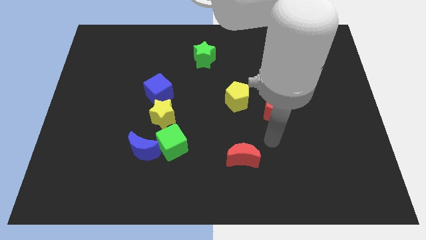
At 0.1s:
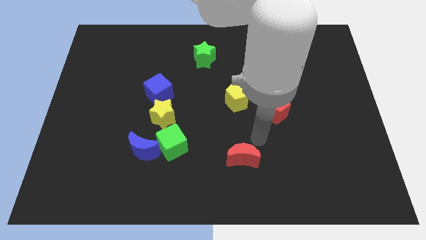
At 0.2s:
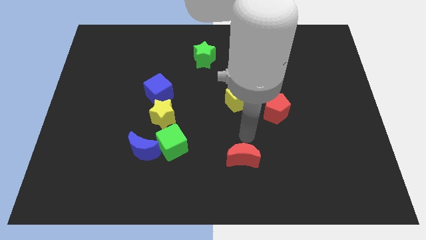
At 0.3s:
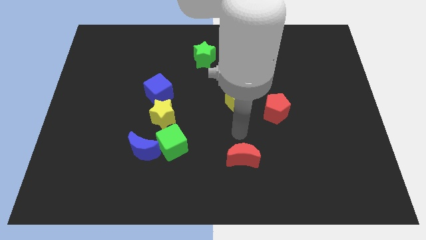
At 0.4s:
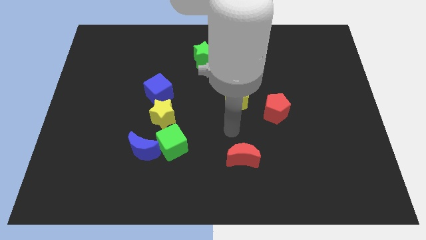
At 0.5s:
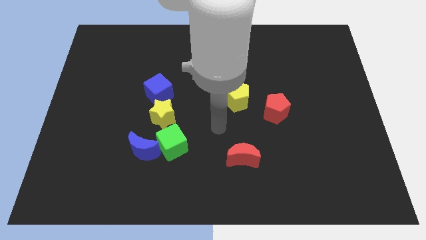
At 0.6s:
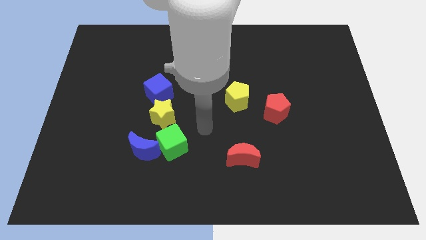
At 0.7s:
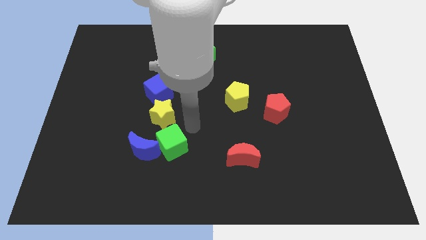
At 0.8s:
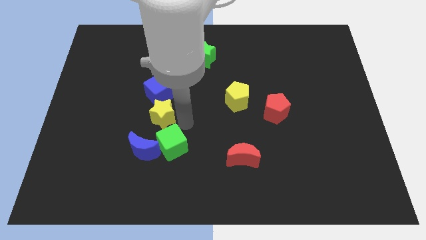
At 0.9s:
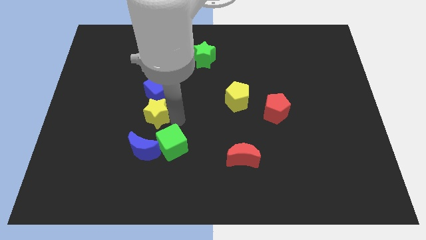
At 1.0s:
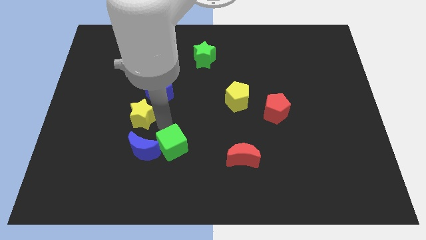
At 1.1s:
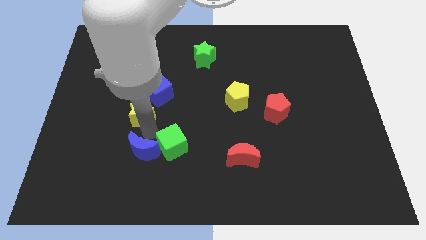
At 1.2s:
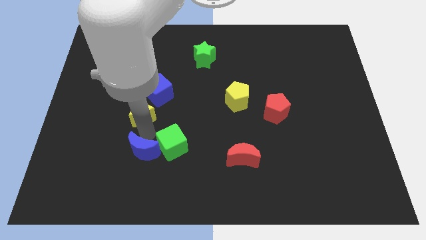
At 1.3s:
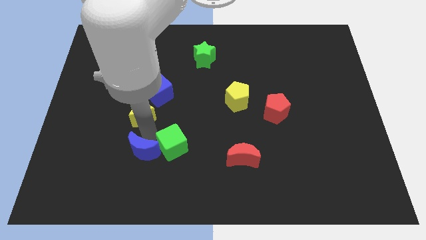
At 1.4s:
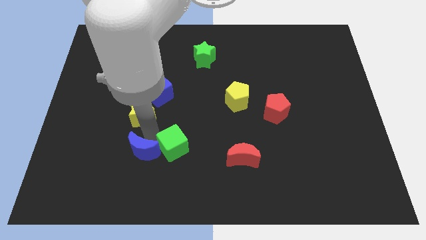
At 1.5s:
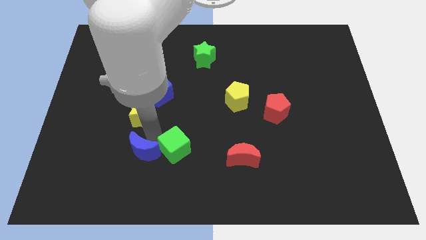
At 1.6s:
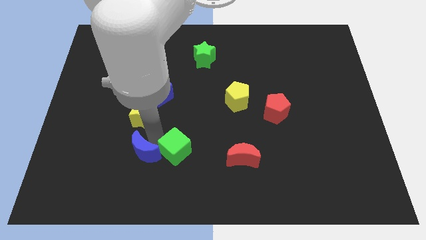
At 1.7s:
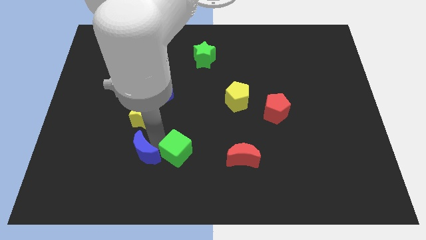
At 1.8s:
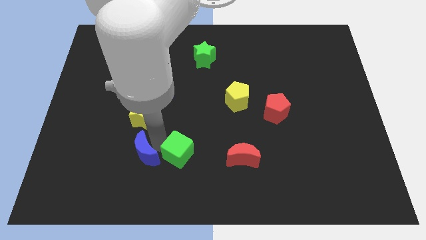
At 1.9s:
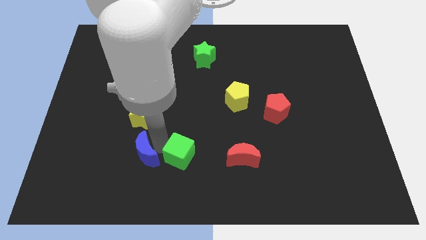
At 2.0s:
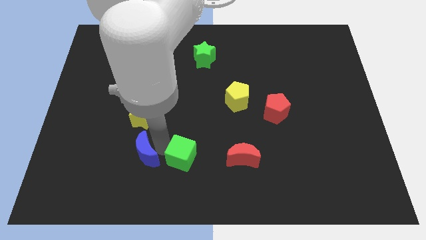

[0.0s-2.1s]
pull the green cube apart from the blue moon and yellow star

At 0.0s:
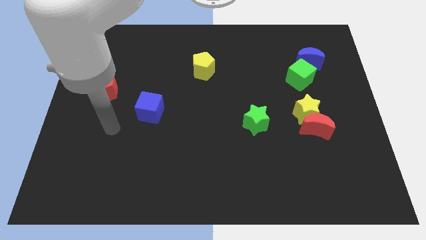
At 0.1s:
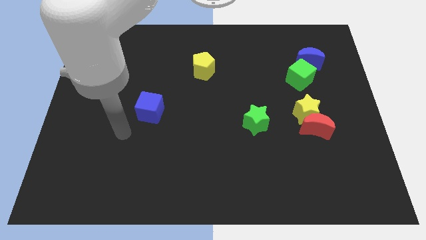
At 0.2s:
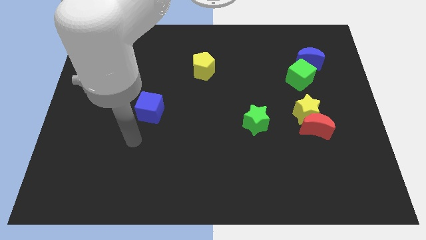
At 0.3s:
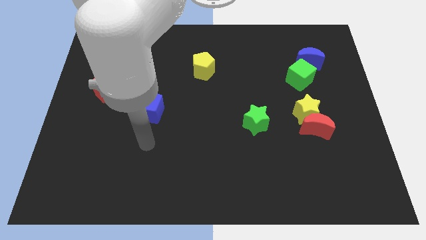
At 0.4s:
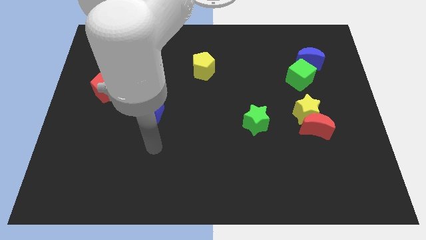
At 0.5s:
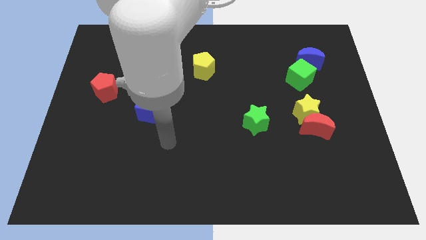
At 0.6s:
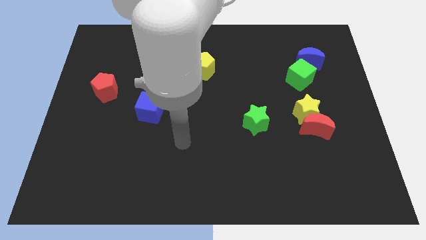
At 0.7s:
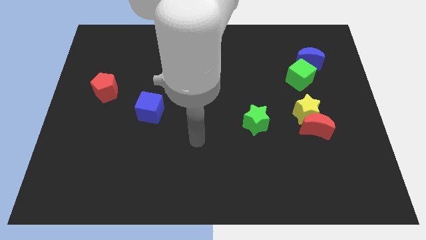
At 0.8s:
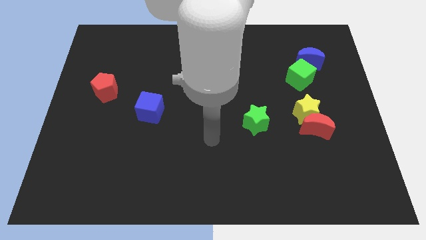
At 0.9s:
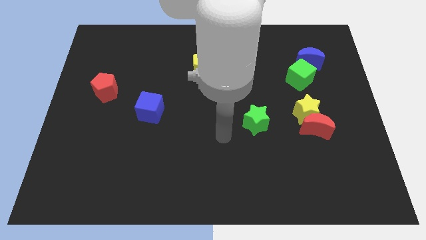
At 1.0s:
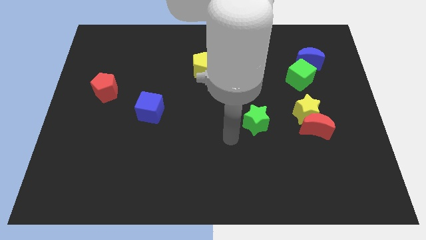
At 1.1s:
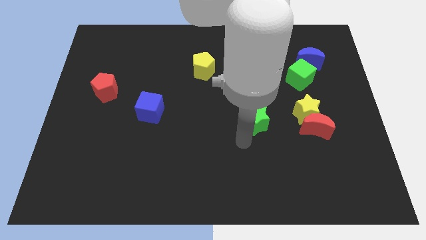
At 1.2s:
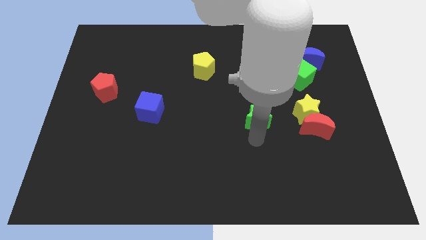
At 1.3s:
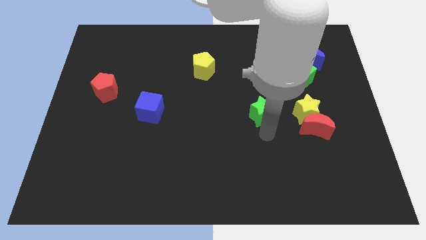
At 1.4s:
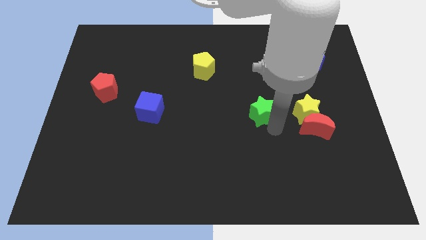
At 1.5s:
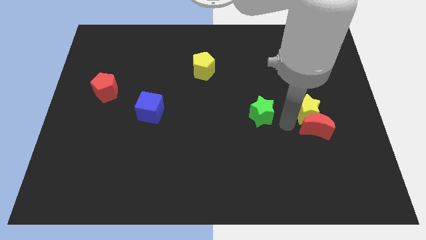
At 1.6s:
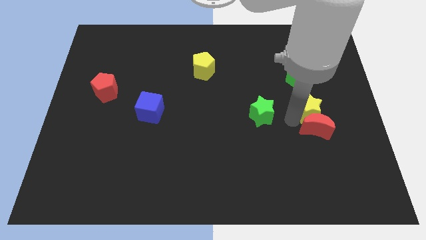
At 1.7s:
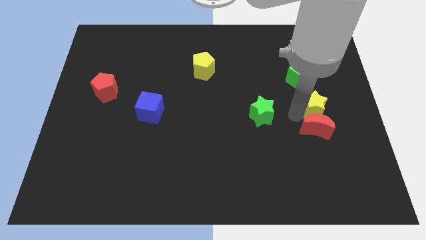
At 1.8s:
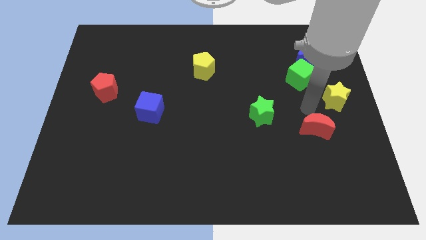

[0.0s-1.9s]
move the red moon away from the yellow star

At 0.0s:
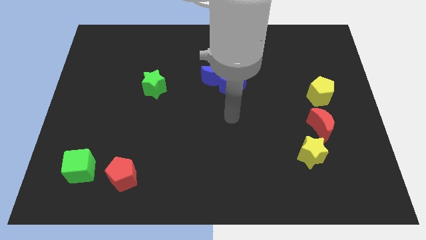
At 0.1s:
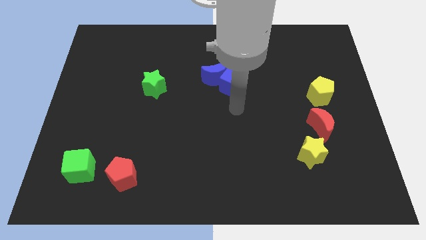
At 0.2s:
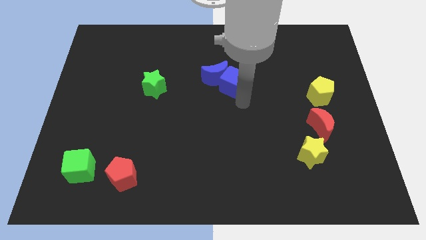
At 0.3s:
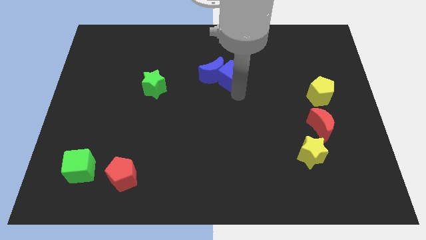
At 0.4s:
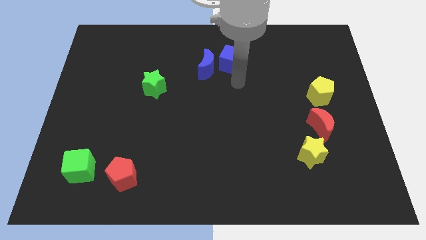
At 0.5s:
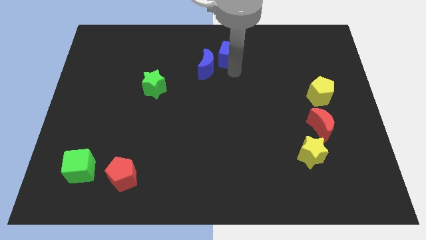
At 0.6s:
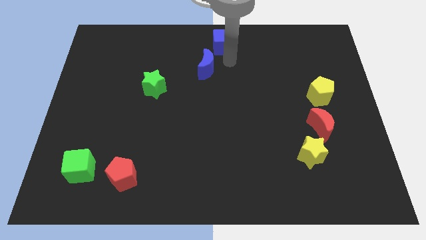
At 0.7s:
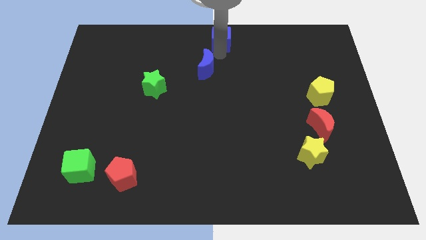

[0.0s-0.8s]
pull the blue moon apart from the blue cube

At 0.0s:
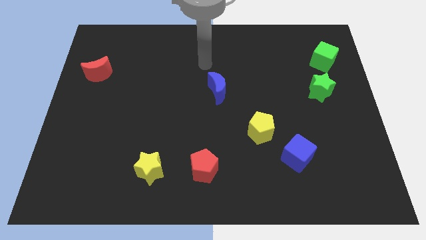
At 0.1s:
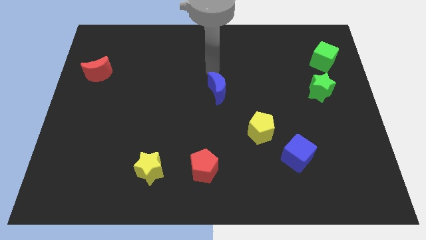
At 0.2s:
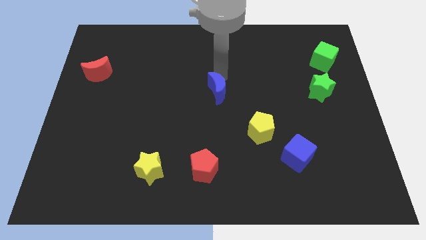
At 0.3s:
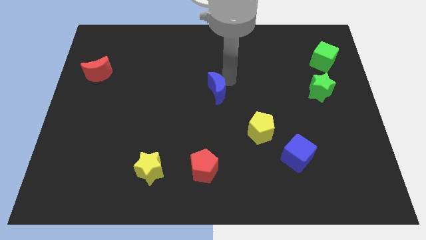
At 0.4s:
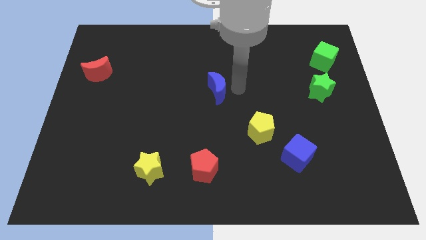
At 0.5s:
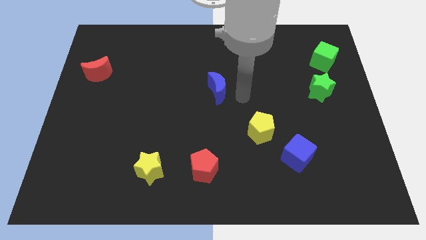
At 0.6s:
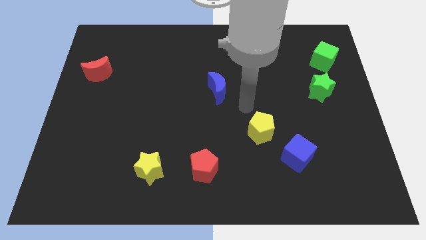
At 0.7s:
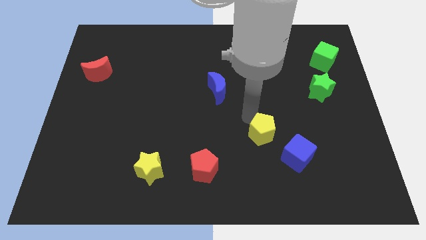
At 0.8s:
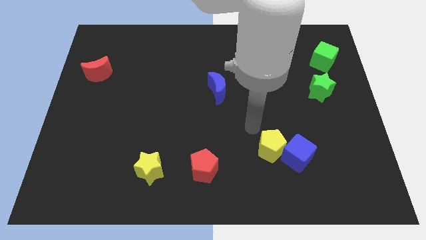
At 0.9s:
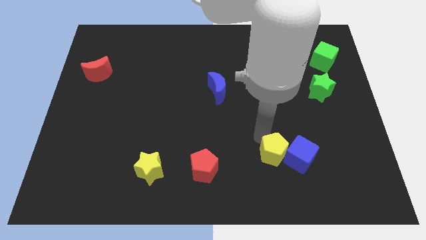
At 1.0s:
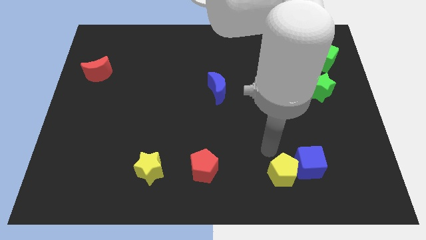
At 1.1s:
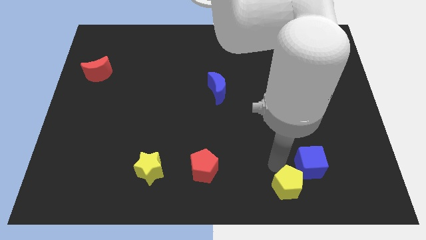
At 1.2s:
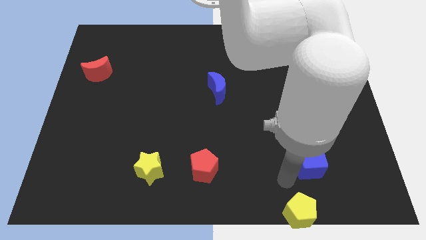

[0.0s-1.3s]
separate the blue cube from the yellow pentagon

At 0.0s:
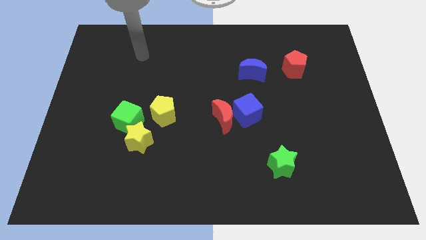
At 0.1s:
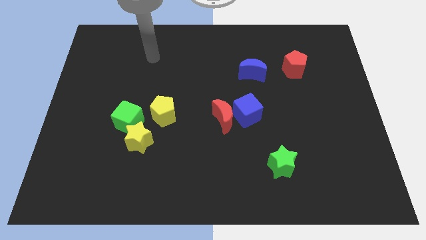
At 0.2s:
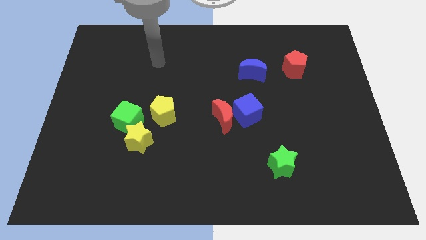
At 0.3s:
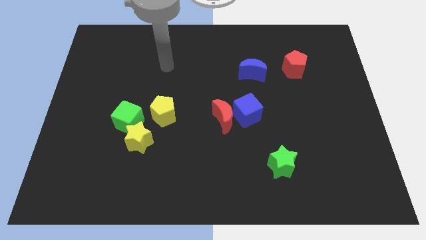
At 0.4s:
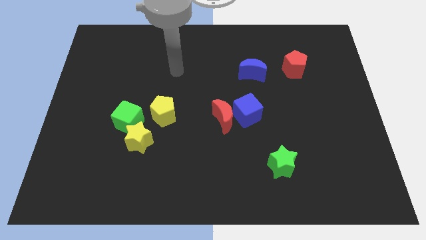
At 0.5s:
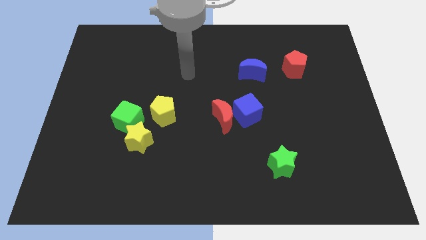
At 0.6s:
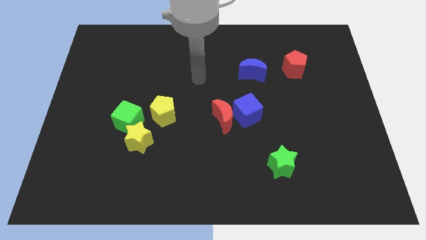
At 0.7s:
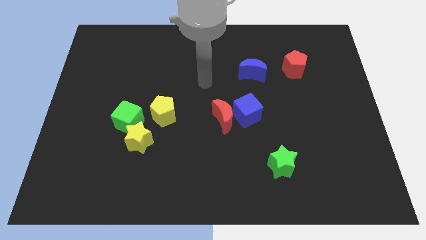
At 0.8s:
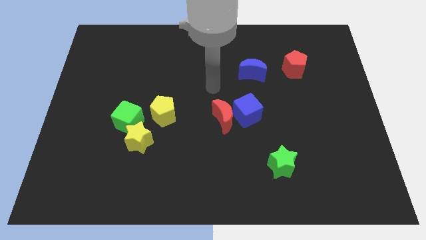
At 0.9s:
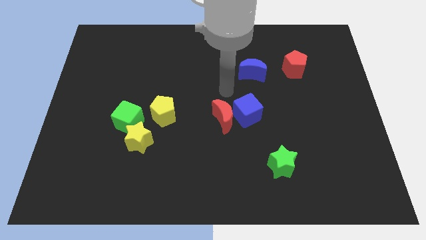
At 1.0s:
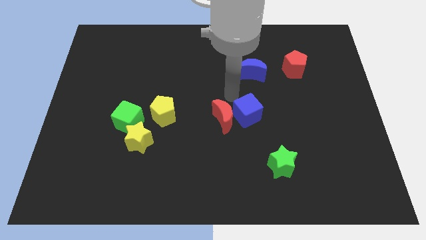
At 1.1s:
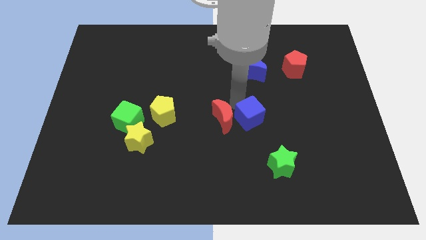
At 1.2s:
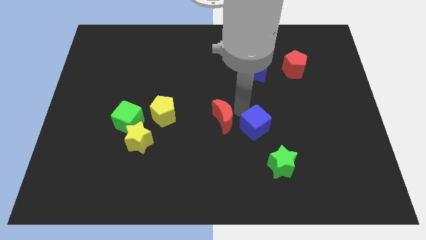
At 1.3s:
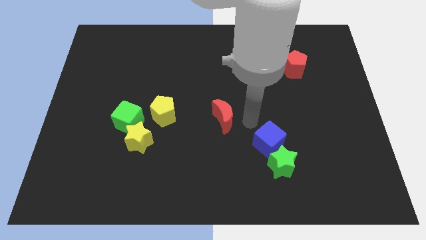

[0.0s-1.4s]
separate the red moon from the blue cube

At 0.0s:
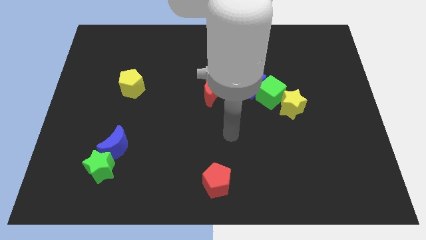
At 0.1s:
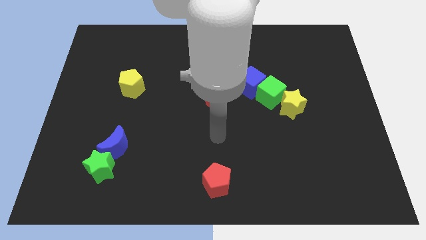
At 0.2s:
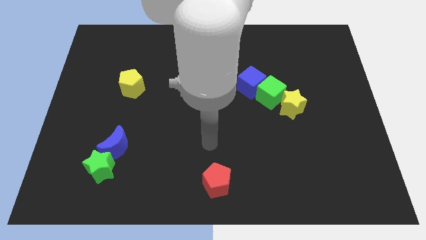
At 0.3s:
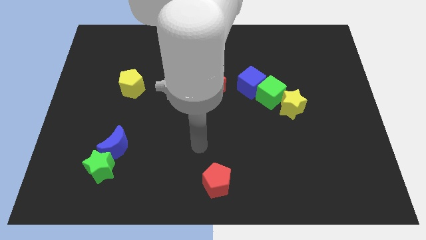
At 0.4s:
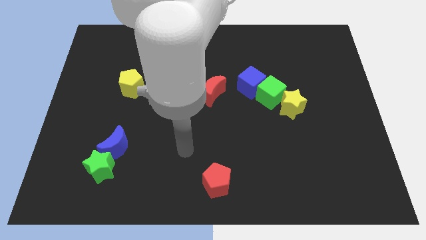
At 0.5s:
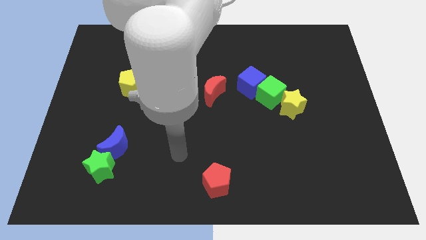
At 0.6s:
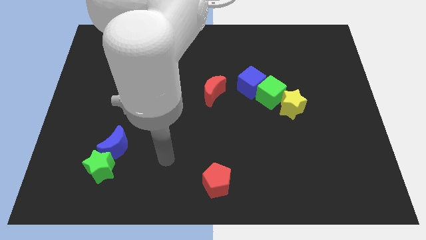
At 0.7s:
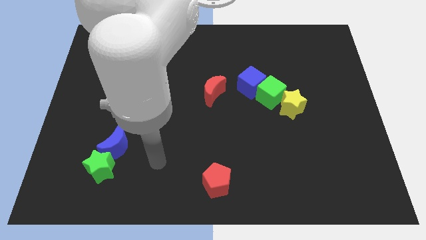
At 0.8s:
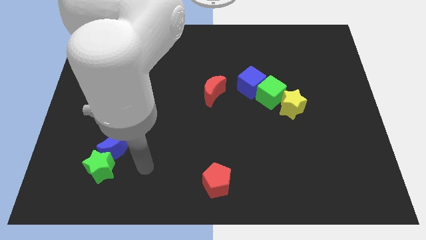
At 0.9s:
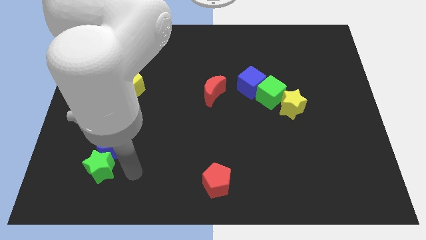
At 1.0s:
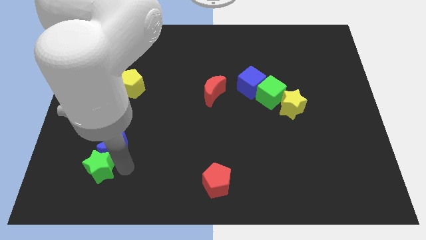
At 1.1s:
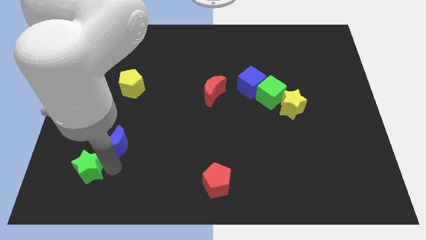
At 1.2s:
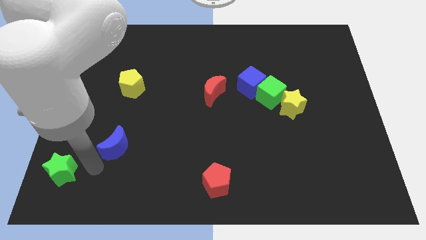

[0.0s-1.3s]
pull the blue moon apart from the green star

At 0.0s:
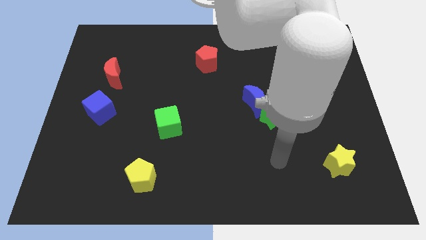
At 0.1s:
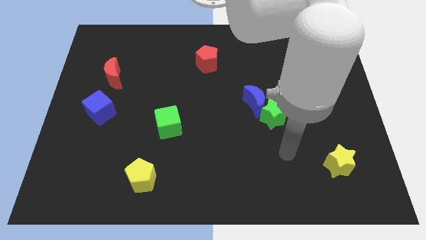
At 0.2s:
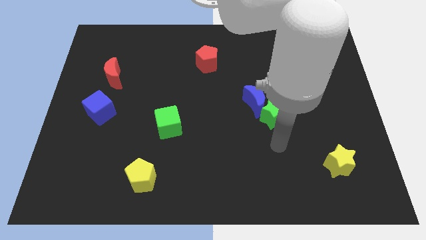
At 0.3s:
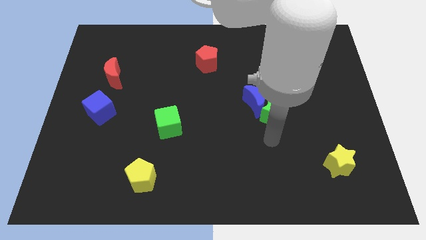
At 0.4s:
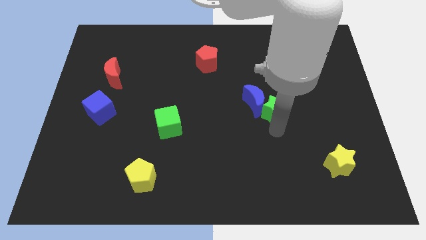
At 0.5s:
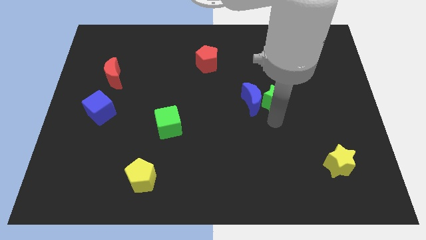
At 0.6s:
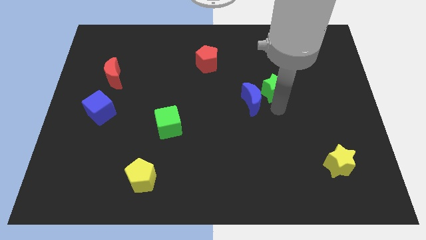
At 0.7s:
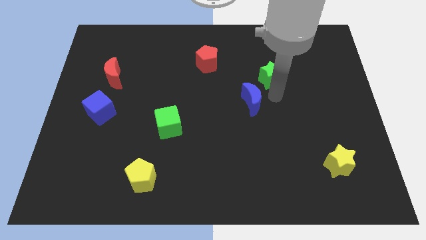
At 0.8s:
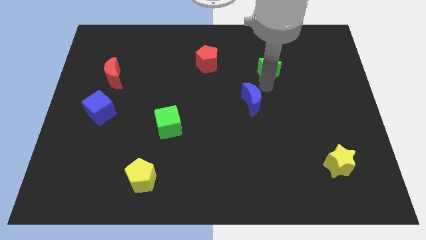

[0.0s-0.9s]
move the blue moon away from the green star
